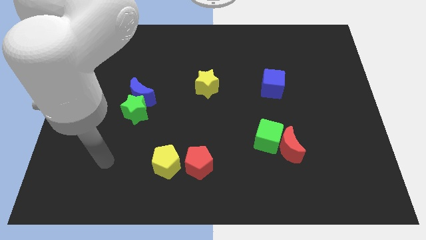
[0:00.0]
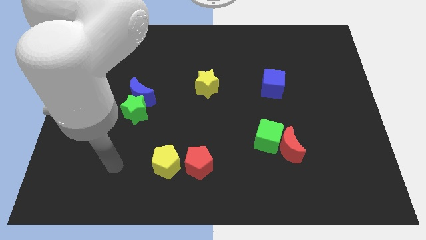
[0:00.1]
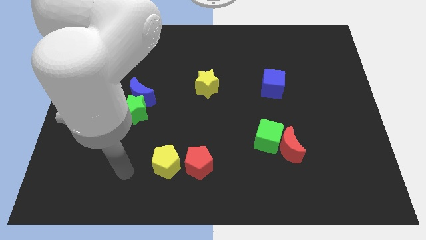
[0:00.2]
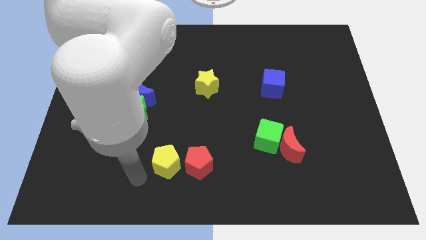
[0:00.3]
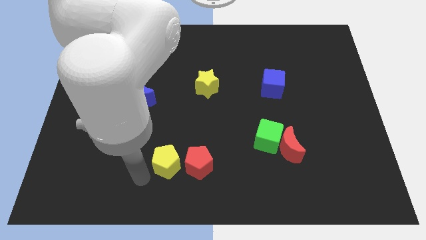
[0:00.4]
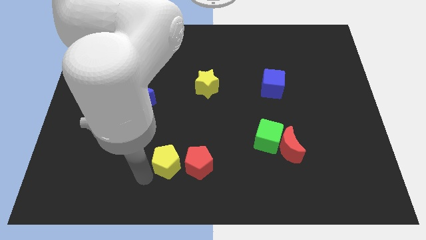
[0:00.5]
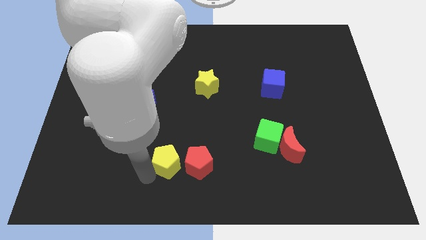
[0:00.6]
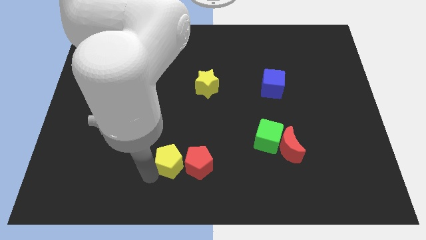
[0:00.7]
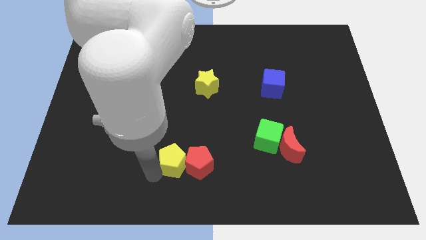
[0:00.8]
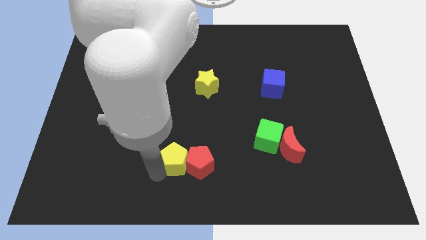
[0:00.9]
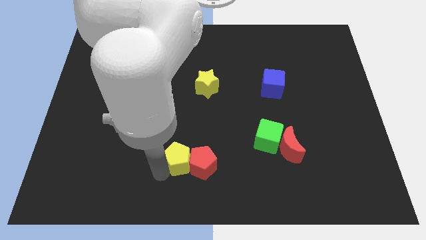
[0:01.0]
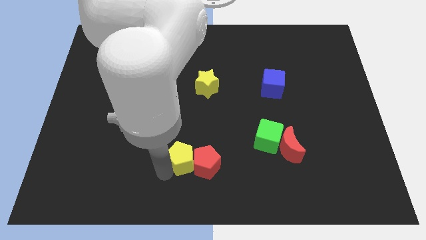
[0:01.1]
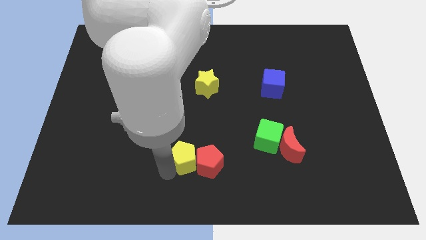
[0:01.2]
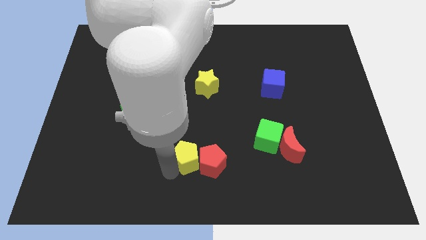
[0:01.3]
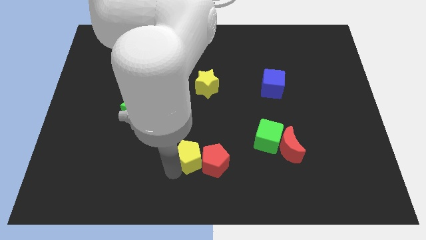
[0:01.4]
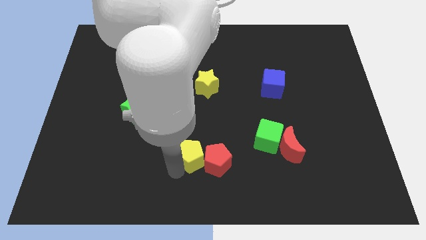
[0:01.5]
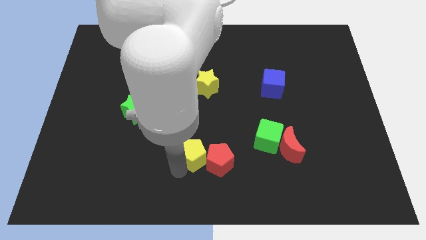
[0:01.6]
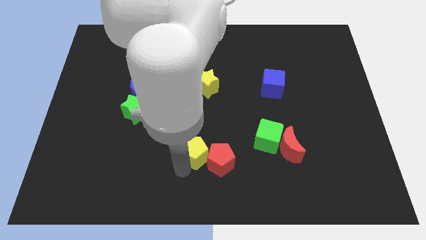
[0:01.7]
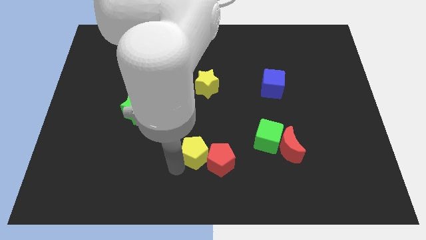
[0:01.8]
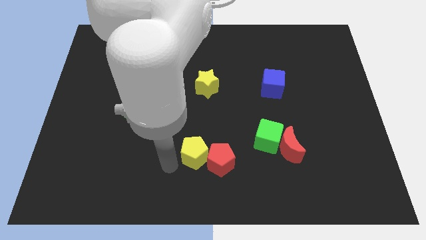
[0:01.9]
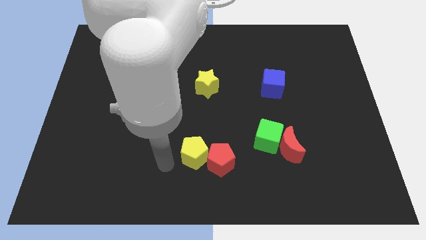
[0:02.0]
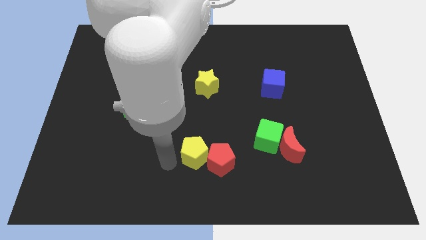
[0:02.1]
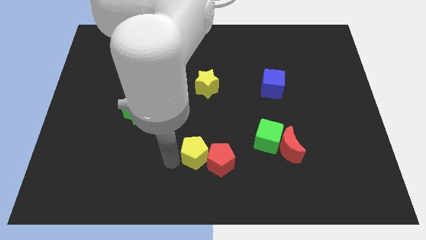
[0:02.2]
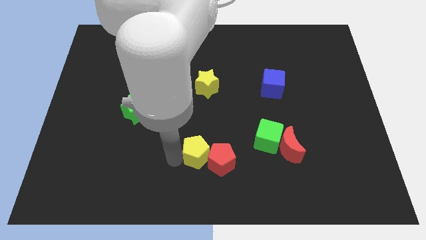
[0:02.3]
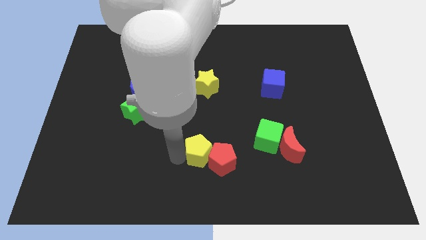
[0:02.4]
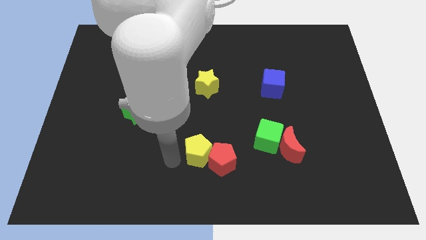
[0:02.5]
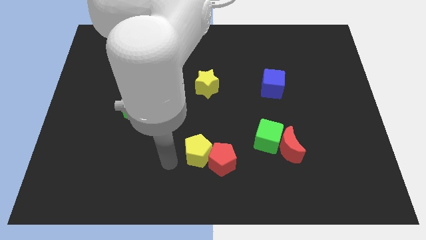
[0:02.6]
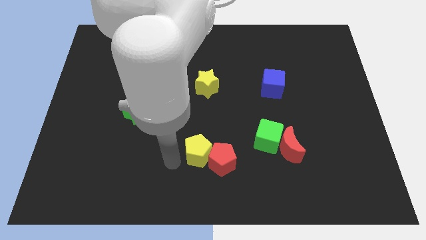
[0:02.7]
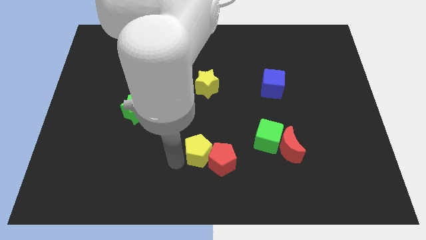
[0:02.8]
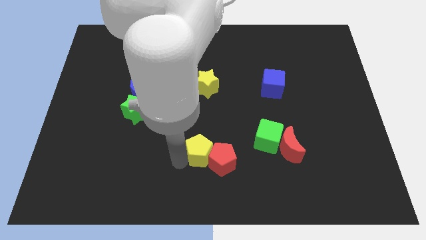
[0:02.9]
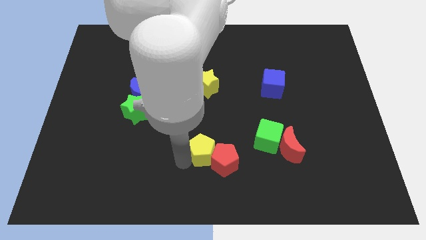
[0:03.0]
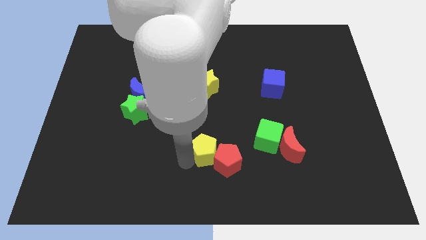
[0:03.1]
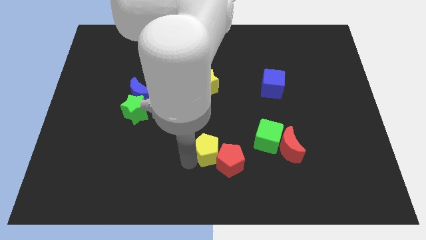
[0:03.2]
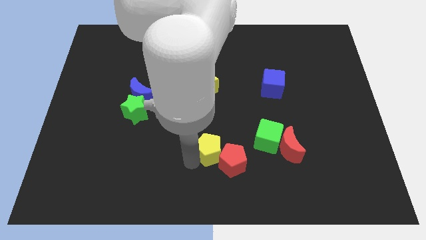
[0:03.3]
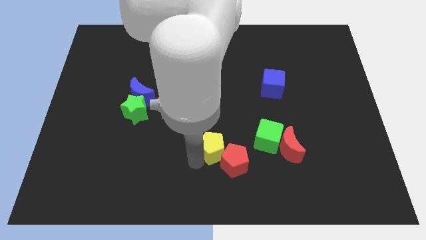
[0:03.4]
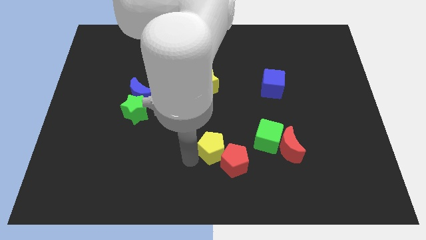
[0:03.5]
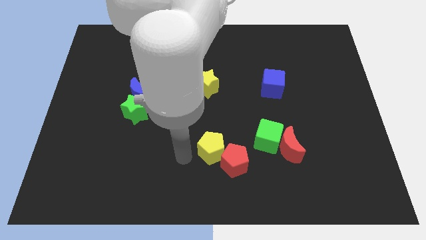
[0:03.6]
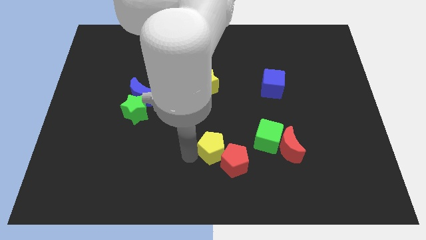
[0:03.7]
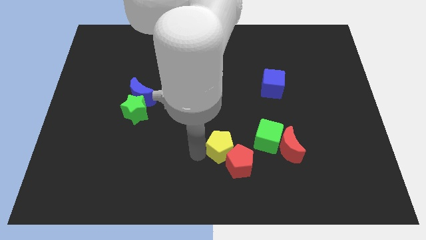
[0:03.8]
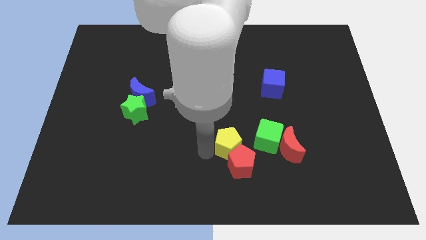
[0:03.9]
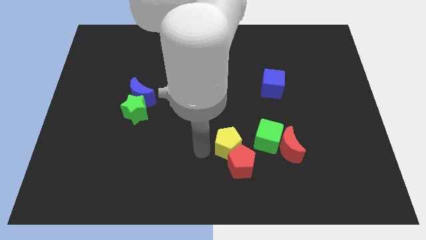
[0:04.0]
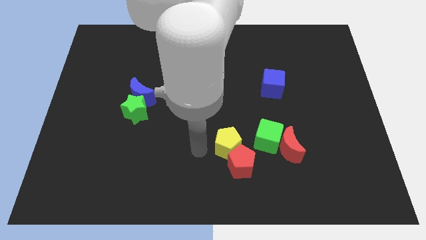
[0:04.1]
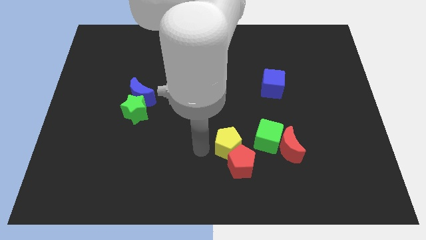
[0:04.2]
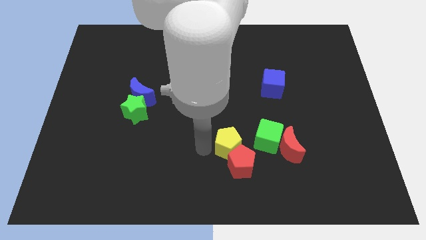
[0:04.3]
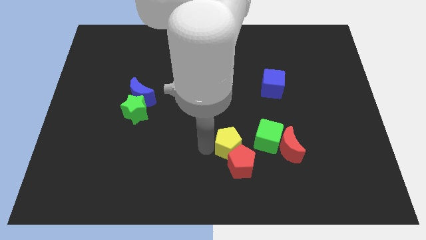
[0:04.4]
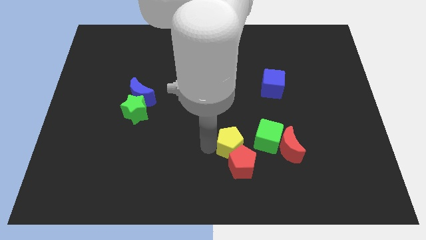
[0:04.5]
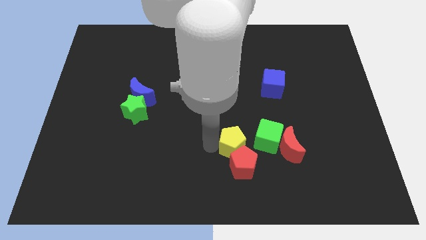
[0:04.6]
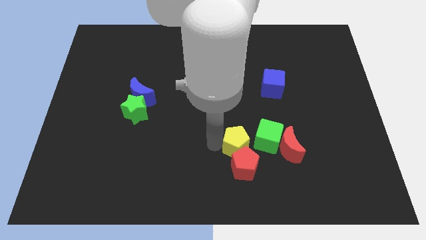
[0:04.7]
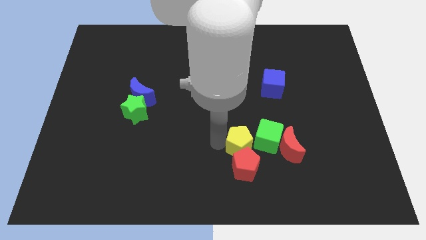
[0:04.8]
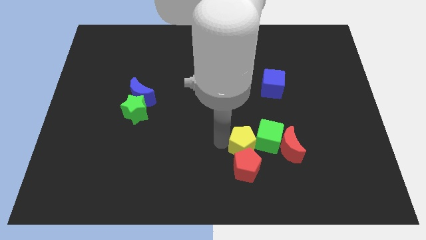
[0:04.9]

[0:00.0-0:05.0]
move the yellow pentagon to the green cube

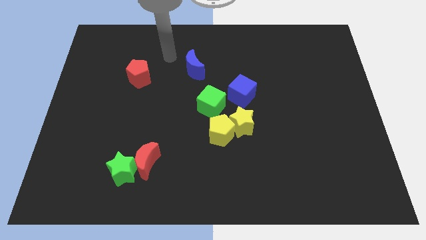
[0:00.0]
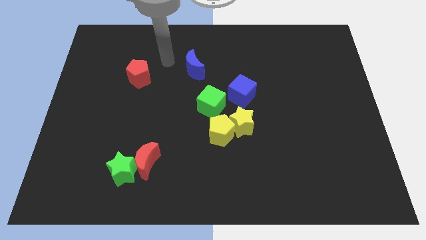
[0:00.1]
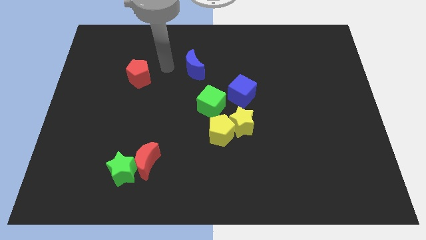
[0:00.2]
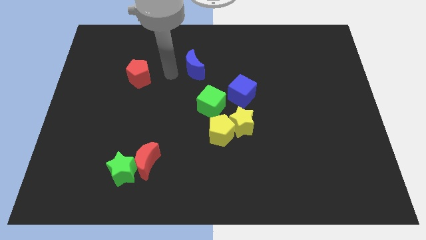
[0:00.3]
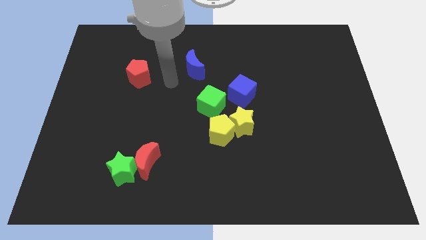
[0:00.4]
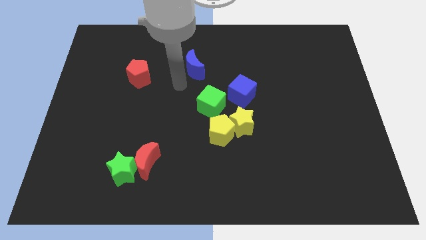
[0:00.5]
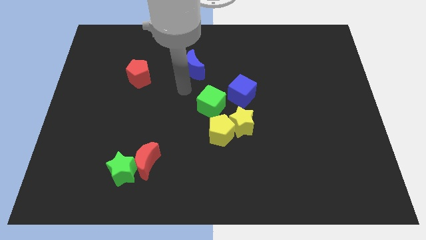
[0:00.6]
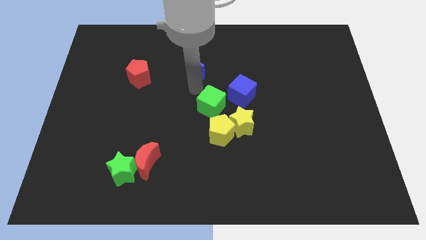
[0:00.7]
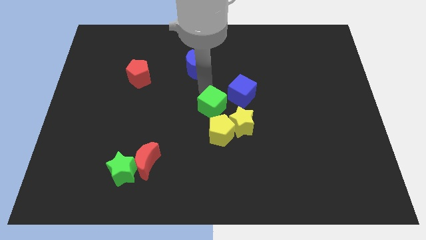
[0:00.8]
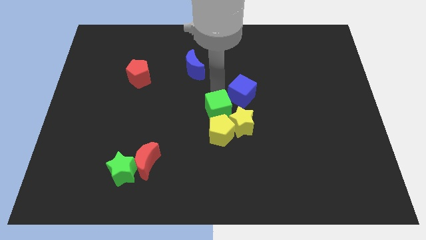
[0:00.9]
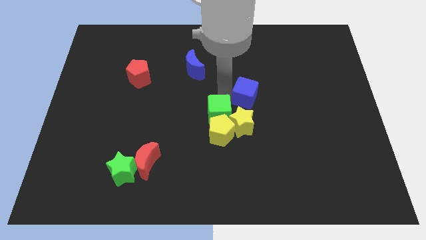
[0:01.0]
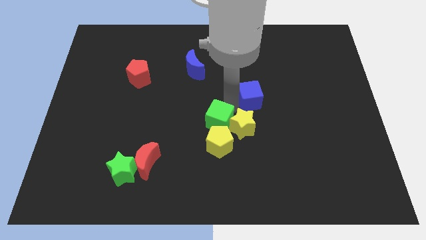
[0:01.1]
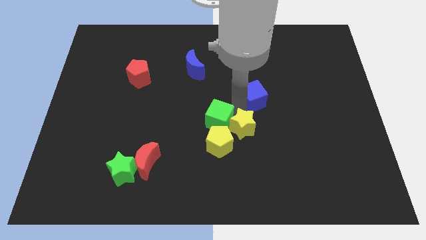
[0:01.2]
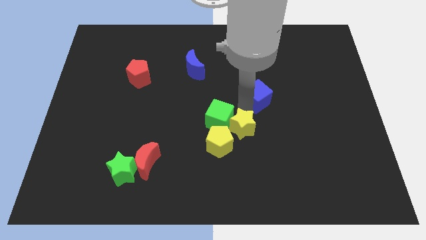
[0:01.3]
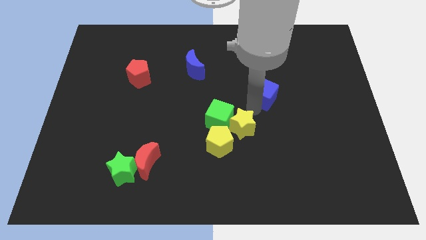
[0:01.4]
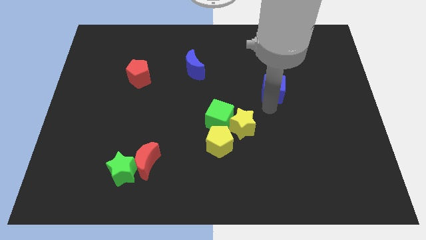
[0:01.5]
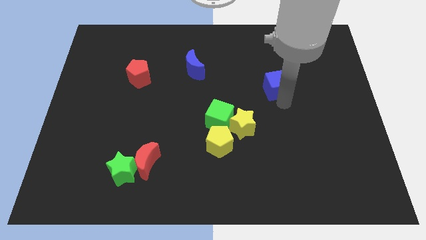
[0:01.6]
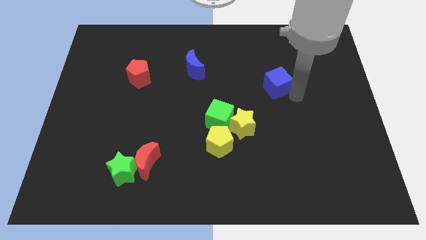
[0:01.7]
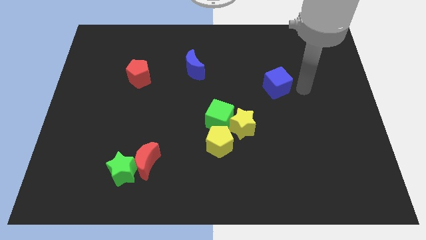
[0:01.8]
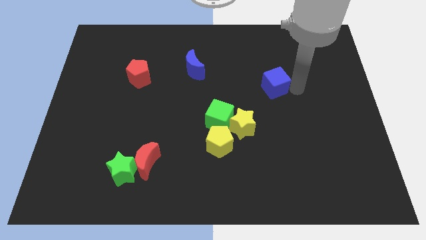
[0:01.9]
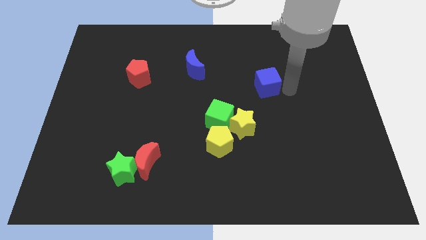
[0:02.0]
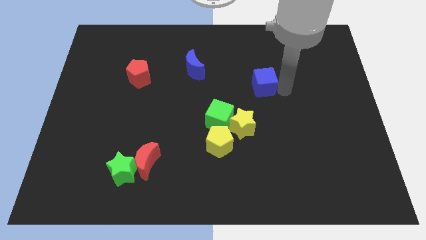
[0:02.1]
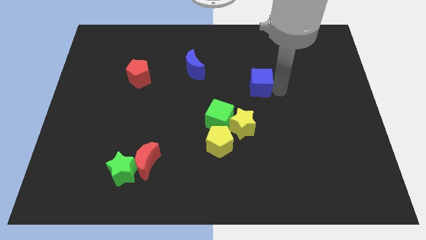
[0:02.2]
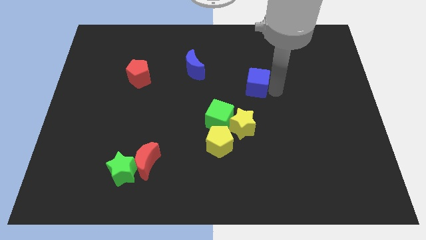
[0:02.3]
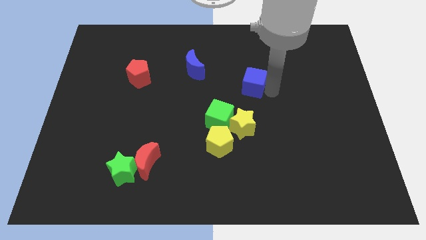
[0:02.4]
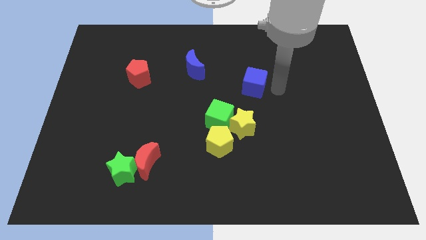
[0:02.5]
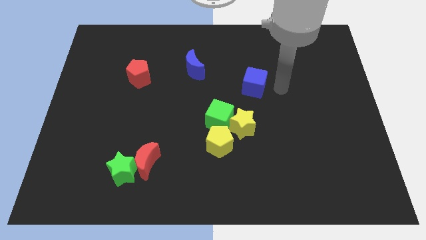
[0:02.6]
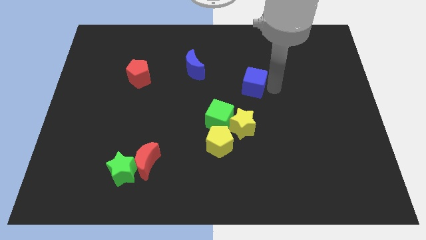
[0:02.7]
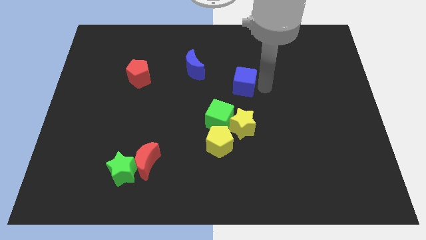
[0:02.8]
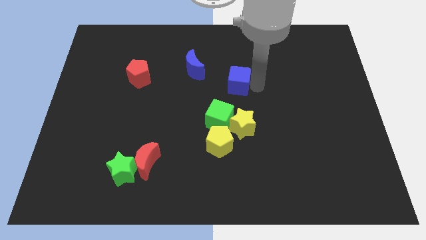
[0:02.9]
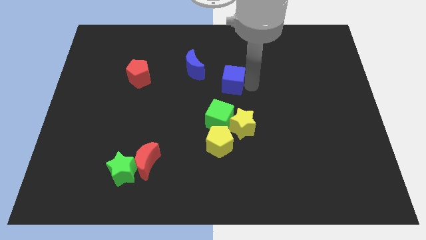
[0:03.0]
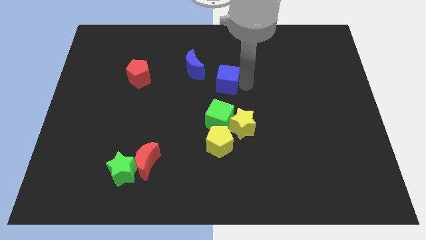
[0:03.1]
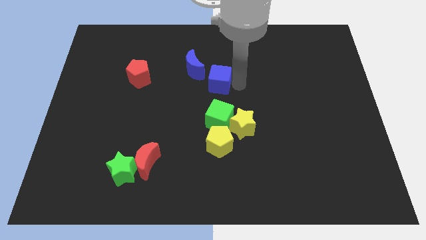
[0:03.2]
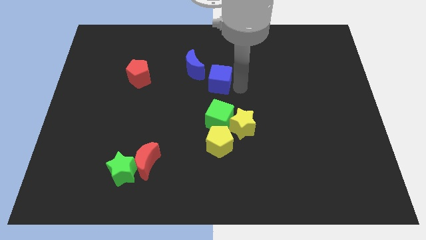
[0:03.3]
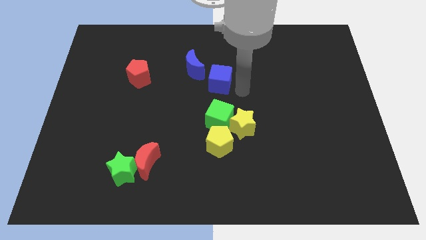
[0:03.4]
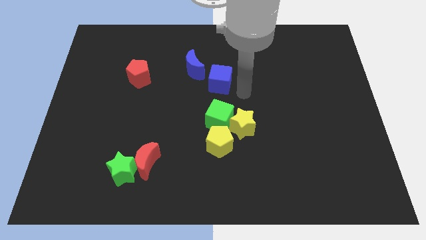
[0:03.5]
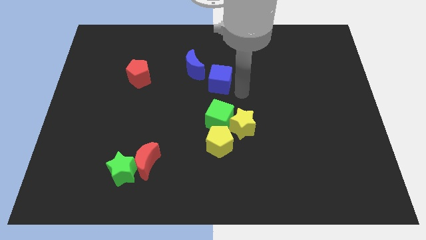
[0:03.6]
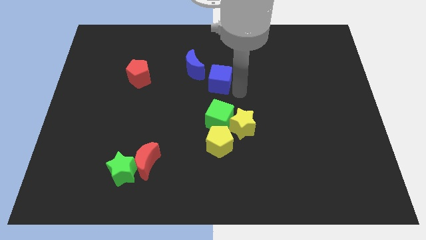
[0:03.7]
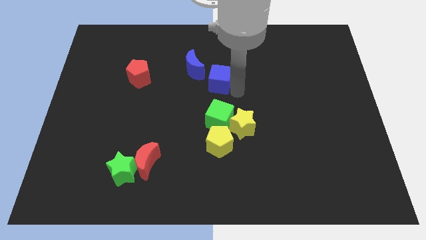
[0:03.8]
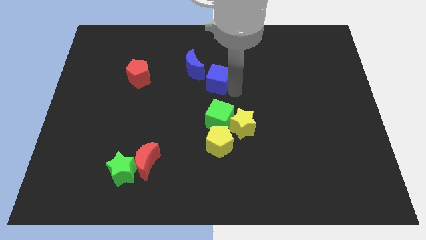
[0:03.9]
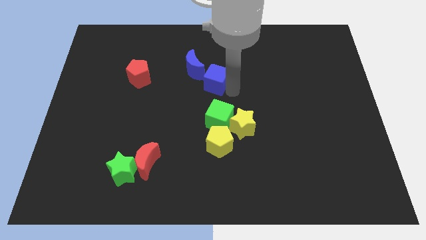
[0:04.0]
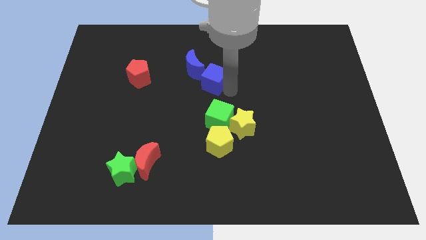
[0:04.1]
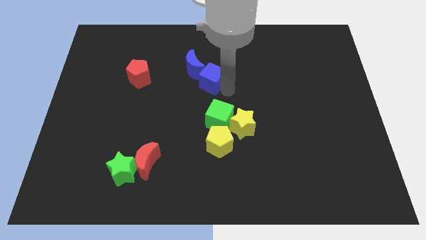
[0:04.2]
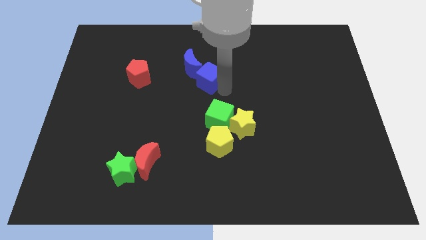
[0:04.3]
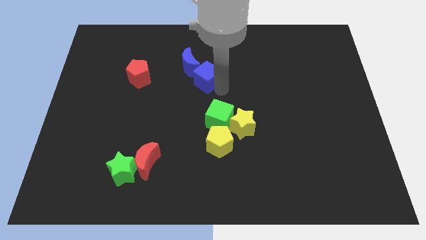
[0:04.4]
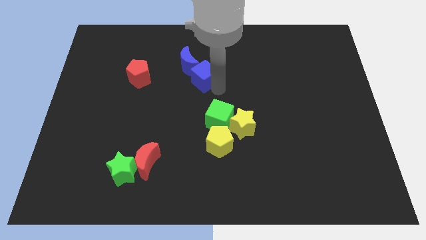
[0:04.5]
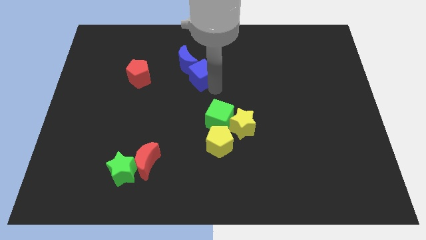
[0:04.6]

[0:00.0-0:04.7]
move the blue cube to the blue moon
